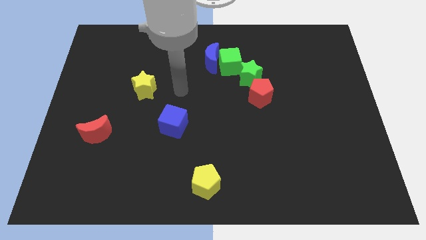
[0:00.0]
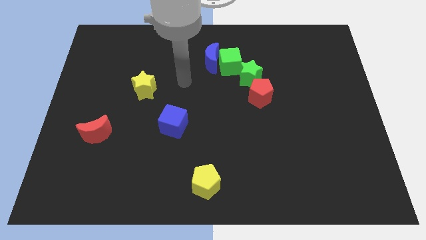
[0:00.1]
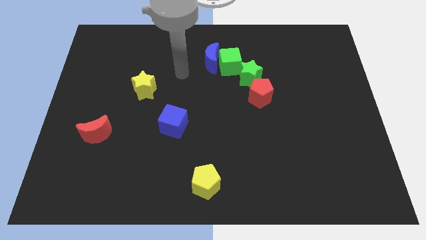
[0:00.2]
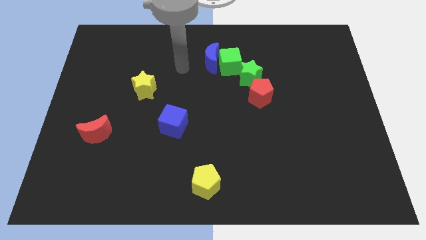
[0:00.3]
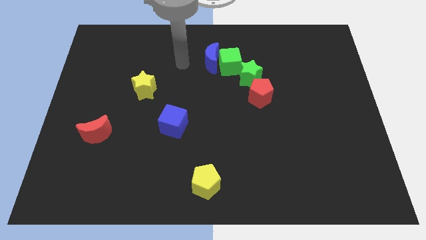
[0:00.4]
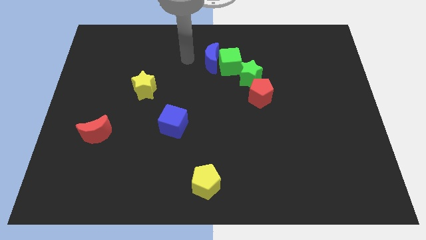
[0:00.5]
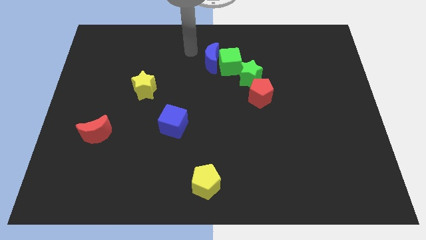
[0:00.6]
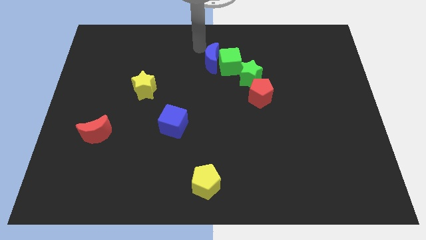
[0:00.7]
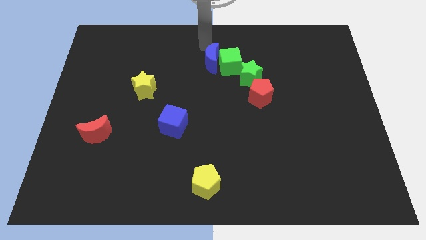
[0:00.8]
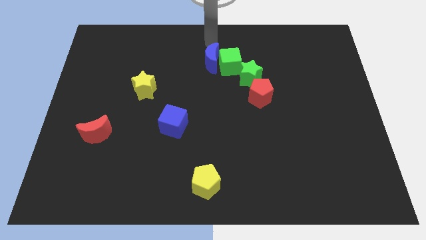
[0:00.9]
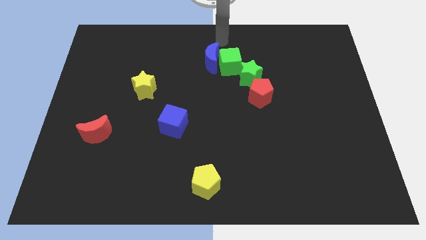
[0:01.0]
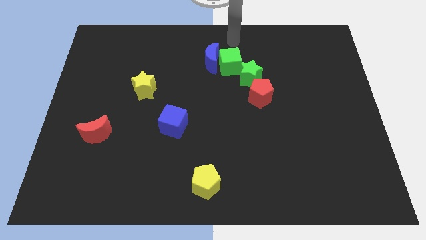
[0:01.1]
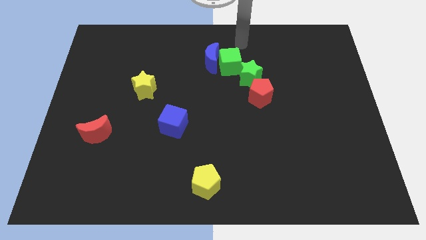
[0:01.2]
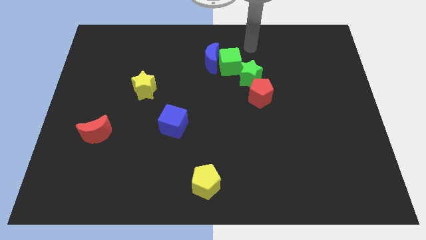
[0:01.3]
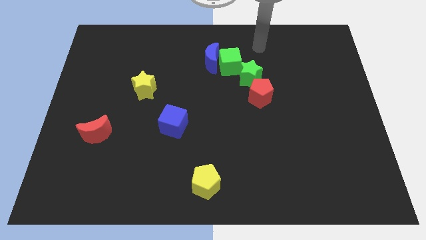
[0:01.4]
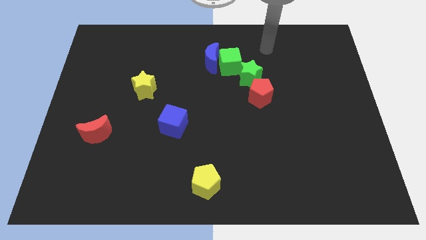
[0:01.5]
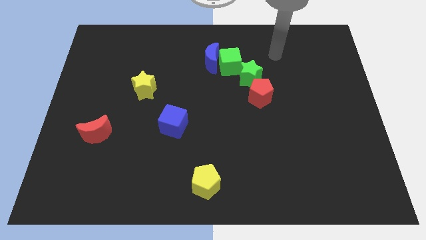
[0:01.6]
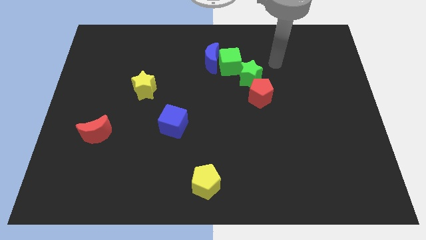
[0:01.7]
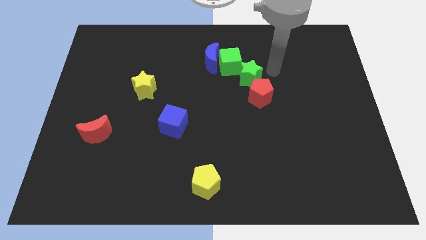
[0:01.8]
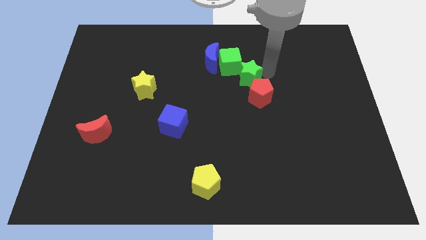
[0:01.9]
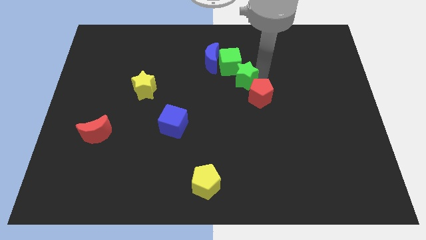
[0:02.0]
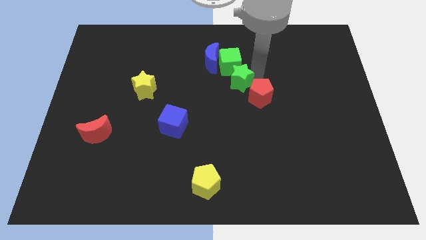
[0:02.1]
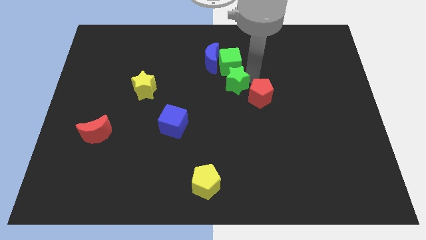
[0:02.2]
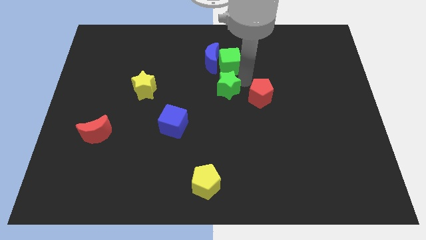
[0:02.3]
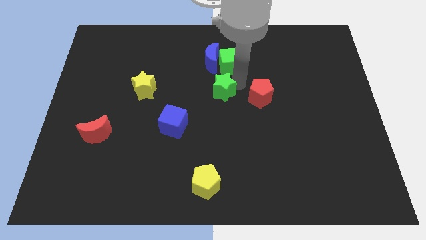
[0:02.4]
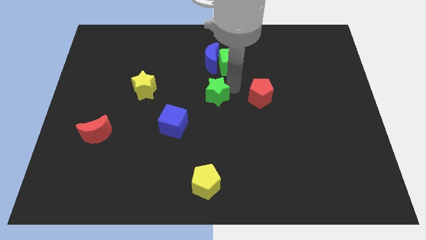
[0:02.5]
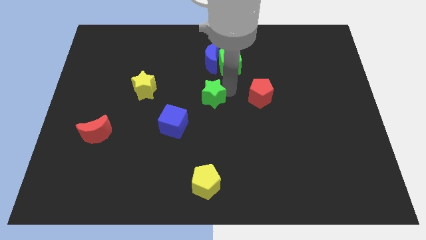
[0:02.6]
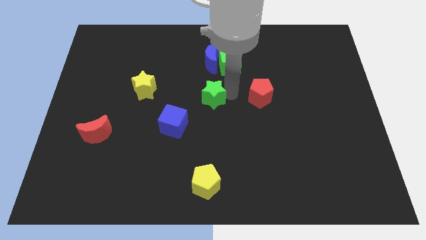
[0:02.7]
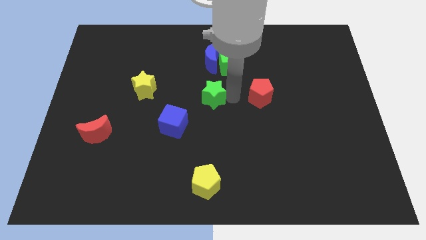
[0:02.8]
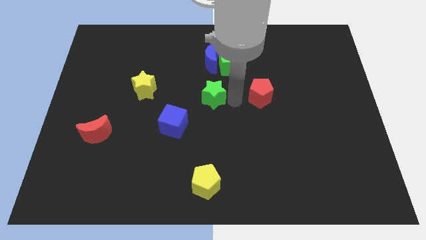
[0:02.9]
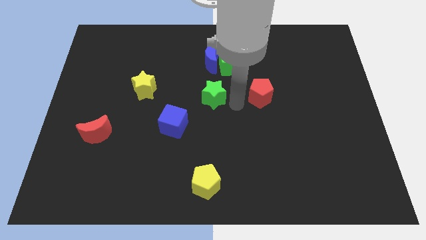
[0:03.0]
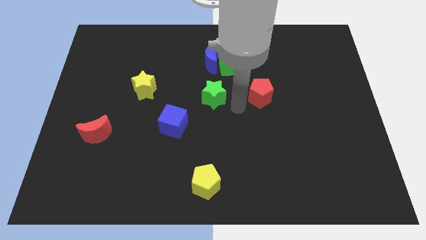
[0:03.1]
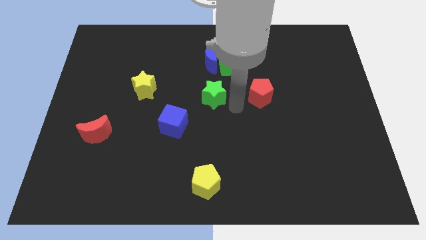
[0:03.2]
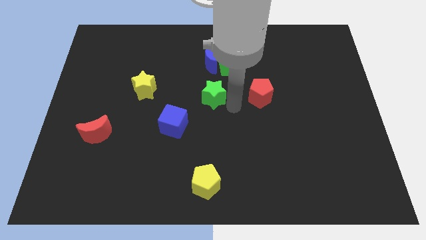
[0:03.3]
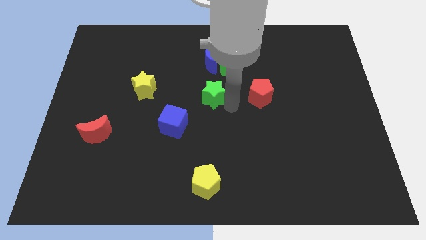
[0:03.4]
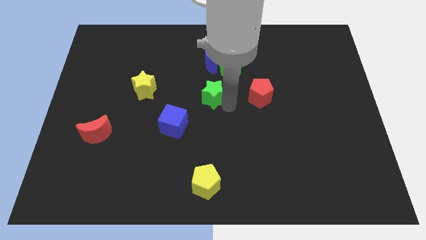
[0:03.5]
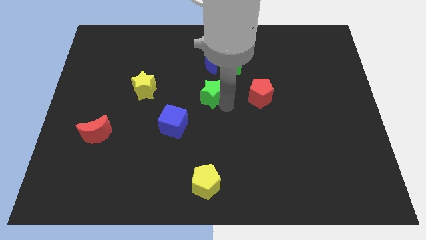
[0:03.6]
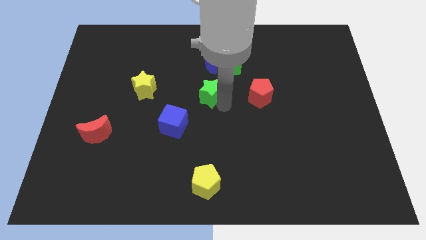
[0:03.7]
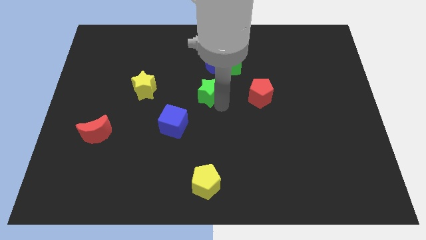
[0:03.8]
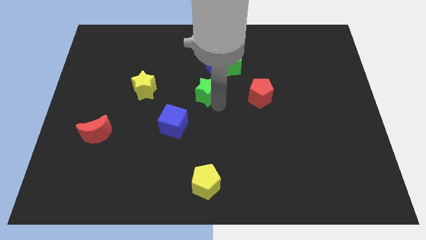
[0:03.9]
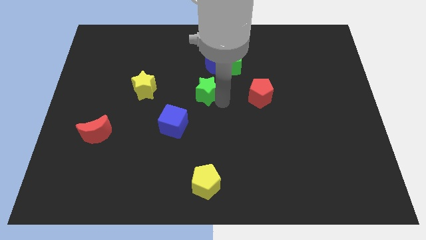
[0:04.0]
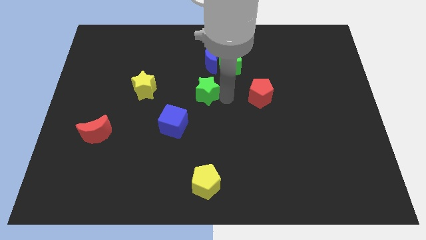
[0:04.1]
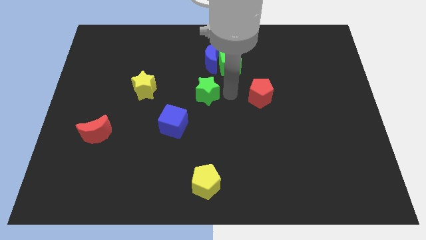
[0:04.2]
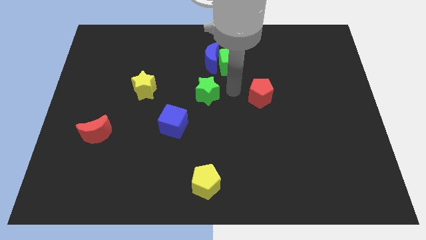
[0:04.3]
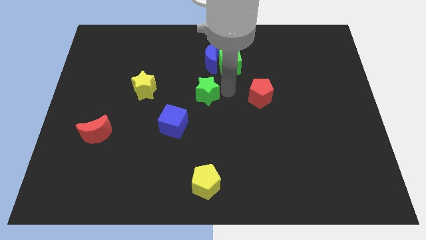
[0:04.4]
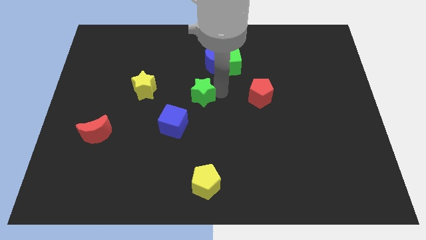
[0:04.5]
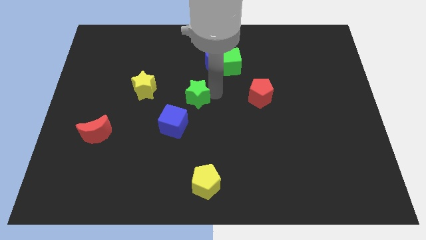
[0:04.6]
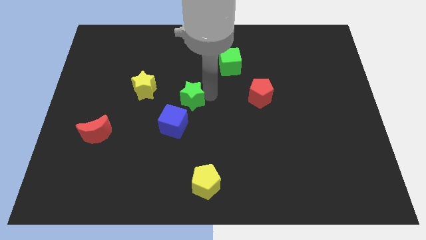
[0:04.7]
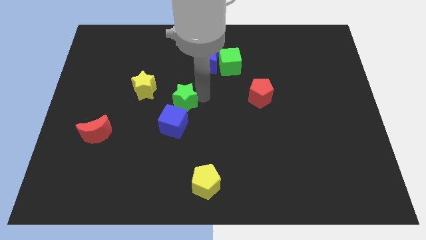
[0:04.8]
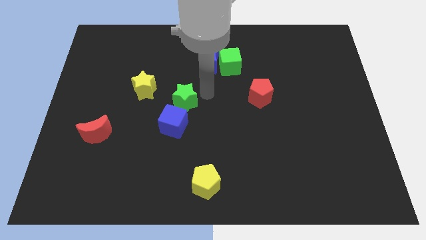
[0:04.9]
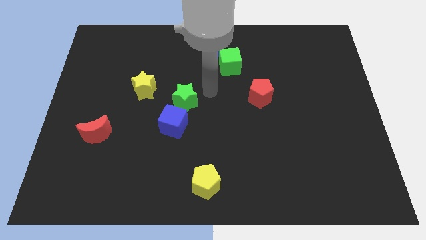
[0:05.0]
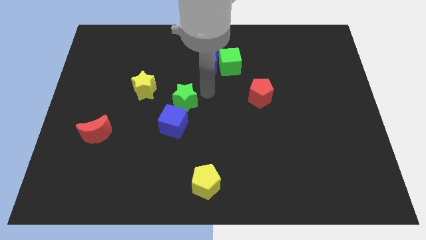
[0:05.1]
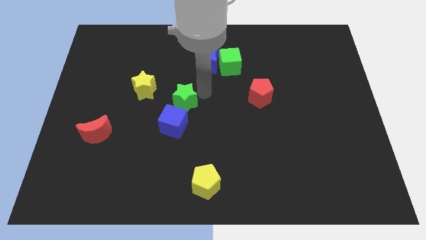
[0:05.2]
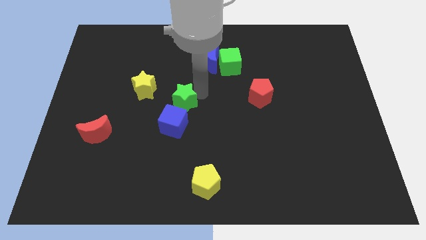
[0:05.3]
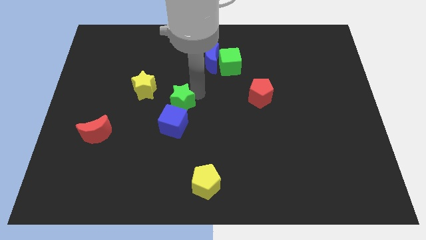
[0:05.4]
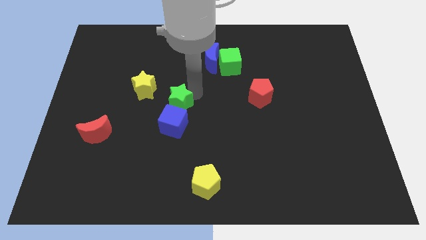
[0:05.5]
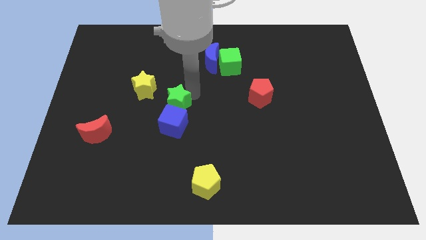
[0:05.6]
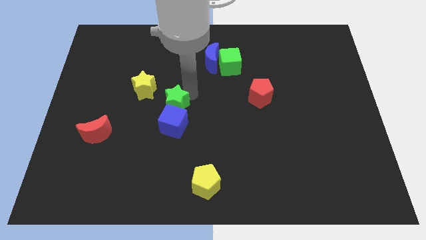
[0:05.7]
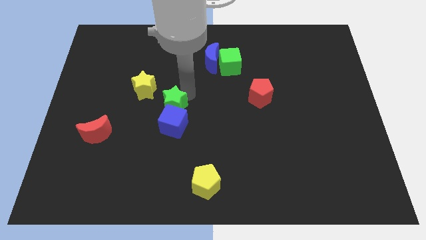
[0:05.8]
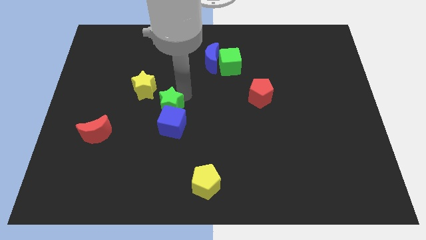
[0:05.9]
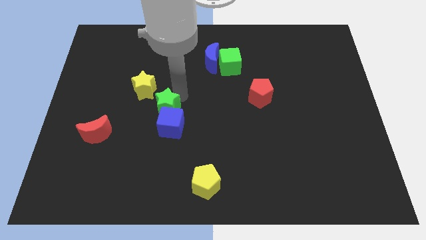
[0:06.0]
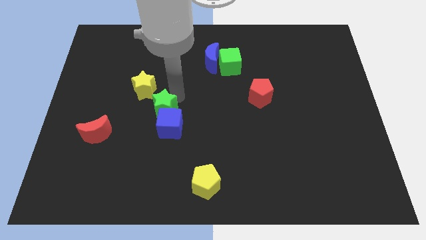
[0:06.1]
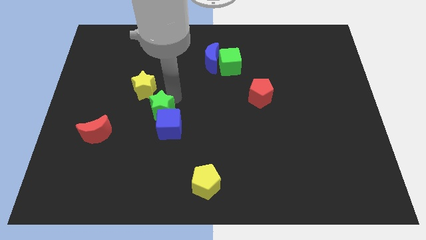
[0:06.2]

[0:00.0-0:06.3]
slide the green star to the bottom side of the yellow star

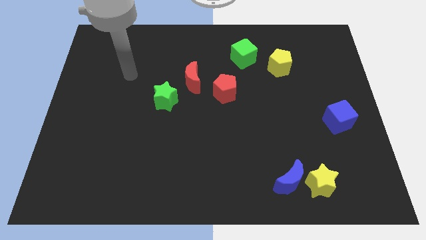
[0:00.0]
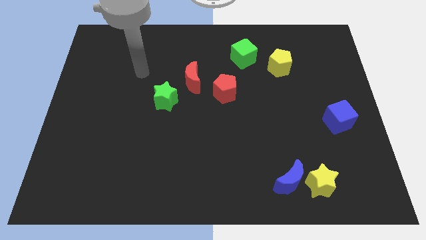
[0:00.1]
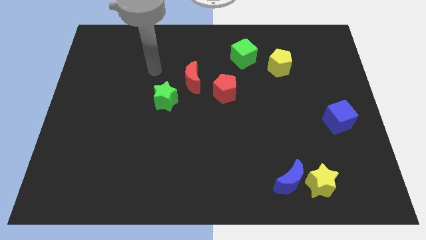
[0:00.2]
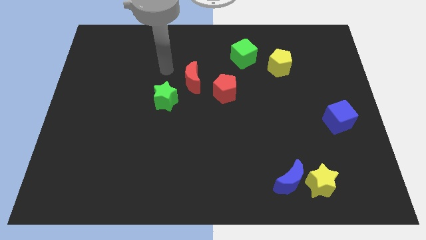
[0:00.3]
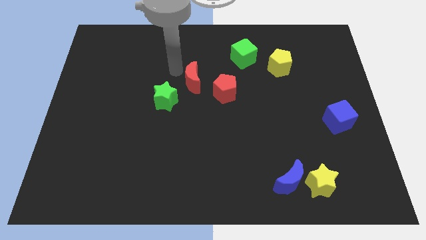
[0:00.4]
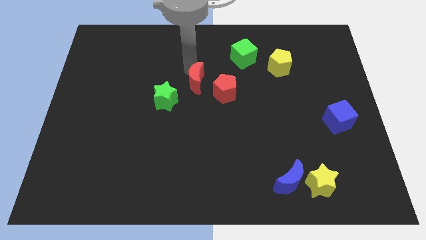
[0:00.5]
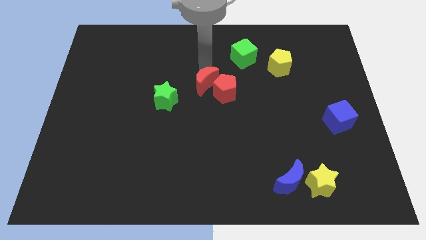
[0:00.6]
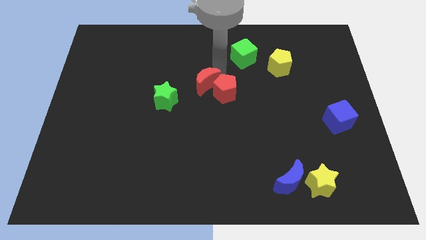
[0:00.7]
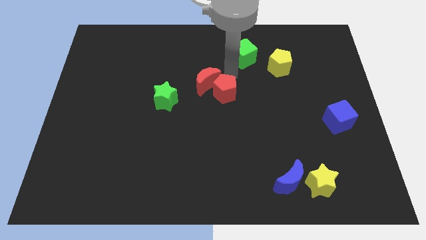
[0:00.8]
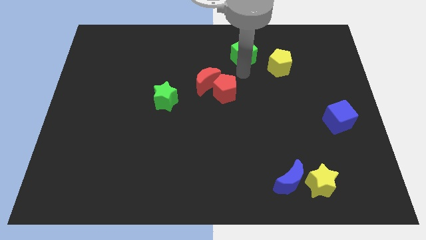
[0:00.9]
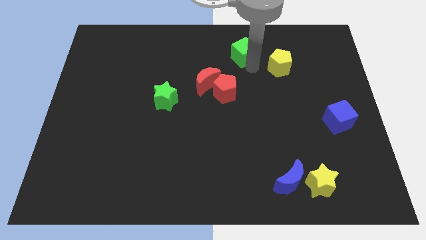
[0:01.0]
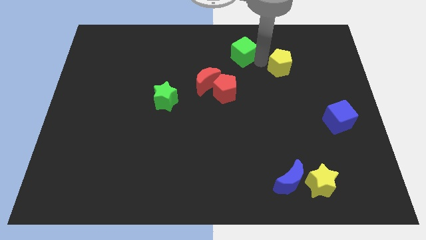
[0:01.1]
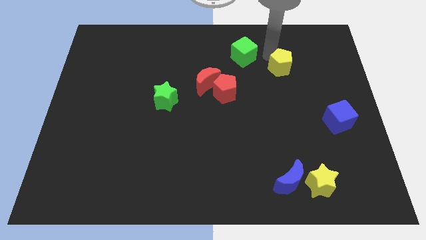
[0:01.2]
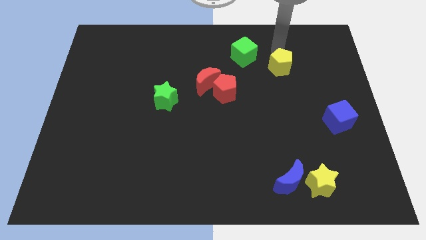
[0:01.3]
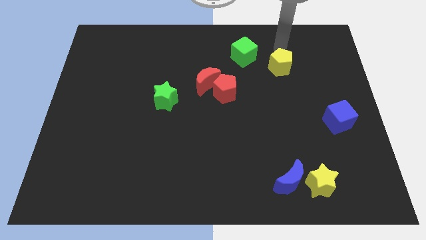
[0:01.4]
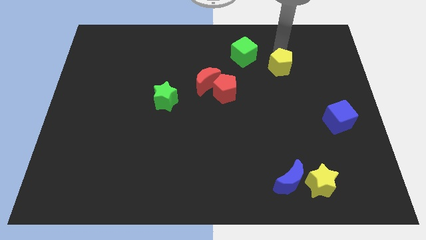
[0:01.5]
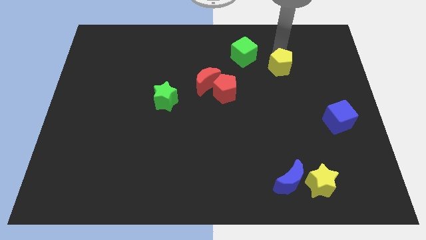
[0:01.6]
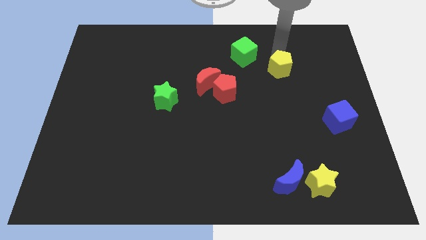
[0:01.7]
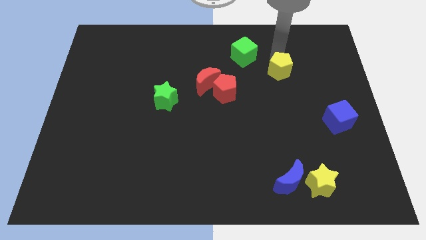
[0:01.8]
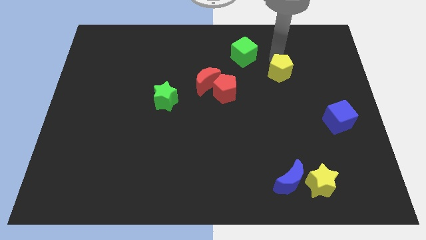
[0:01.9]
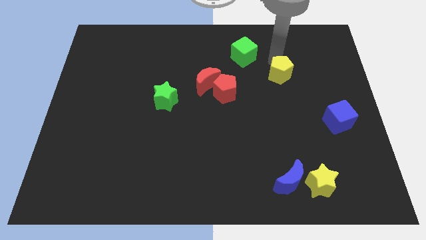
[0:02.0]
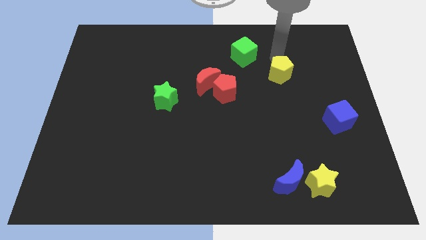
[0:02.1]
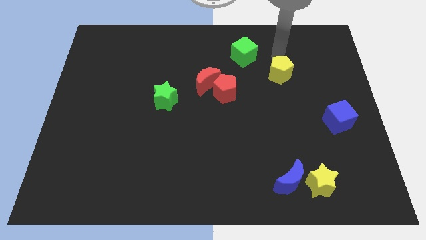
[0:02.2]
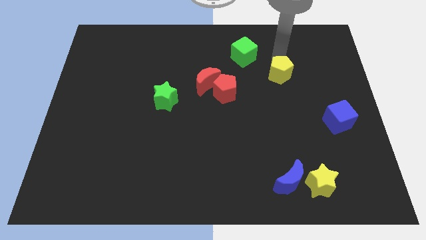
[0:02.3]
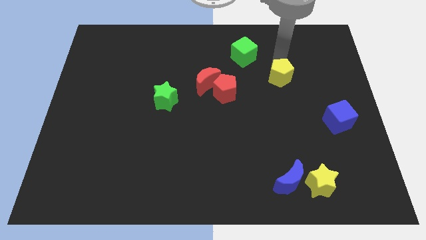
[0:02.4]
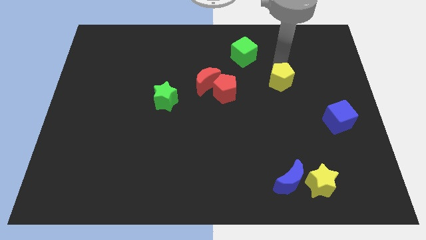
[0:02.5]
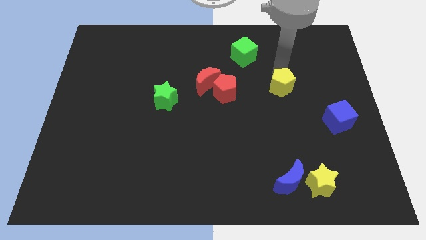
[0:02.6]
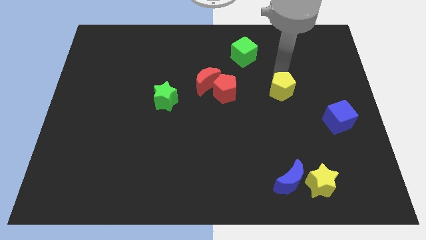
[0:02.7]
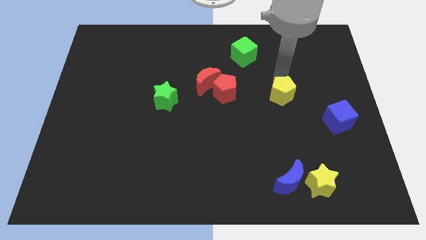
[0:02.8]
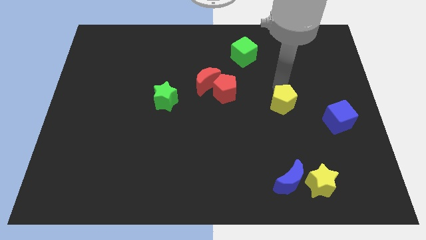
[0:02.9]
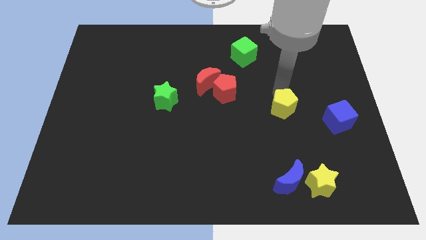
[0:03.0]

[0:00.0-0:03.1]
slide the yellow pentagon left of the blue cube
